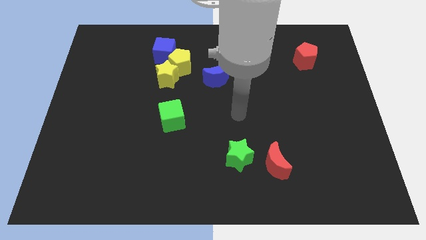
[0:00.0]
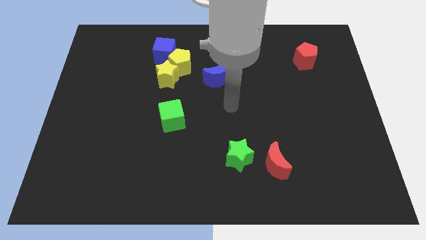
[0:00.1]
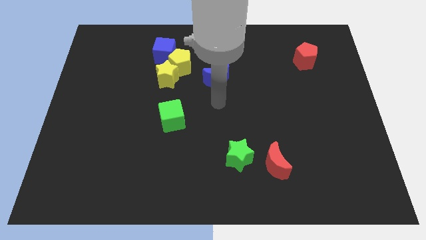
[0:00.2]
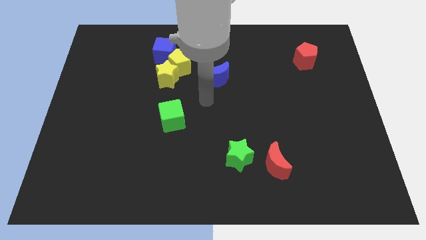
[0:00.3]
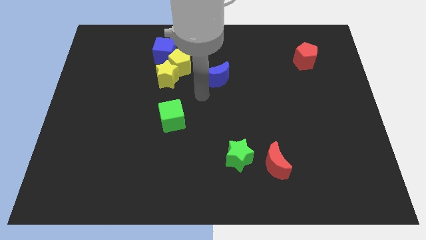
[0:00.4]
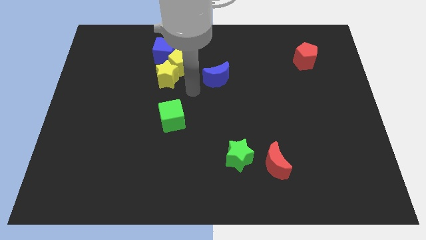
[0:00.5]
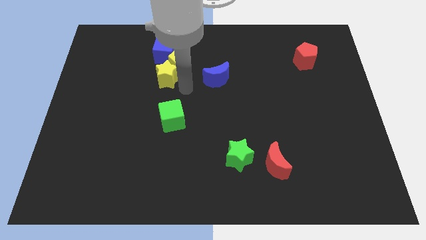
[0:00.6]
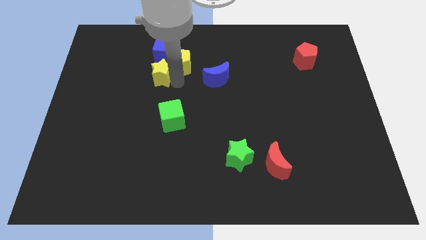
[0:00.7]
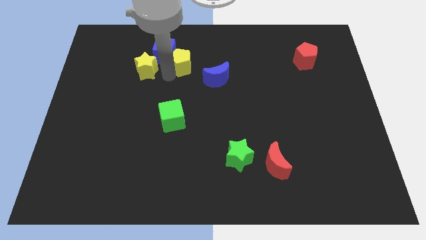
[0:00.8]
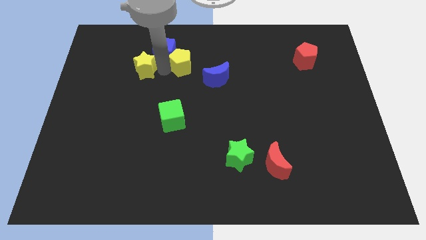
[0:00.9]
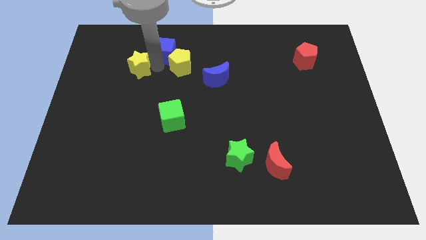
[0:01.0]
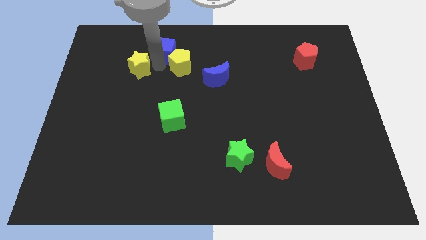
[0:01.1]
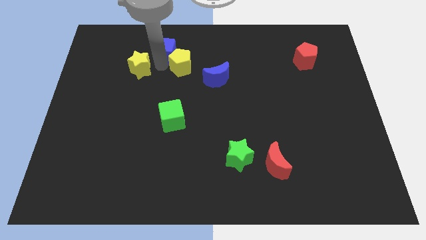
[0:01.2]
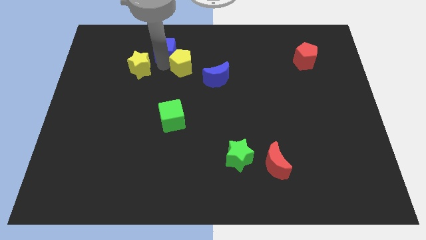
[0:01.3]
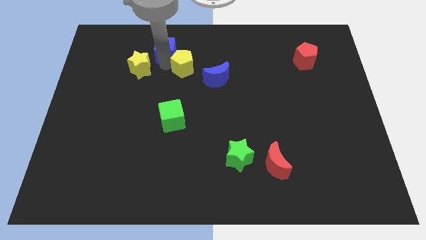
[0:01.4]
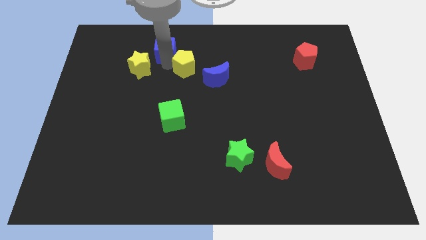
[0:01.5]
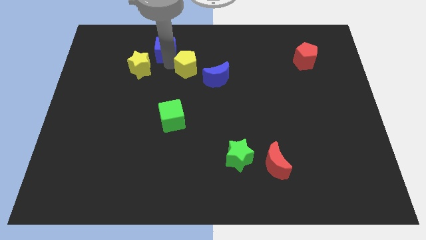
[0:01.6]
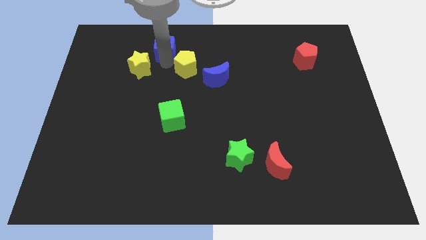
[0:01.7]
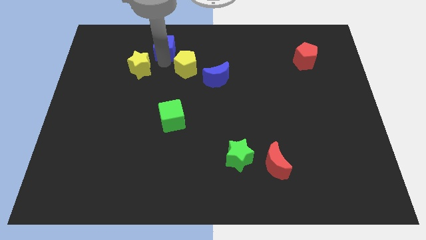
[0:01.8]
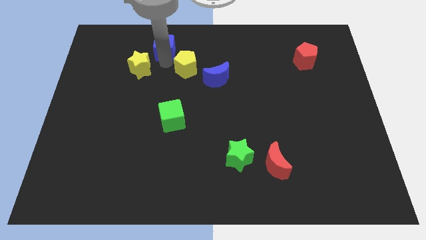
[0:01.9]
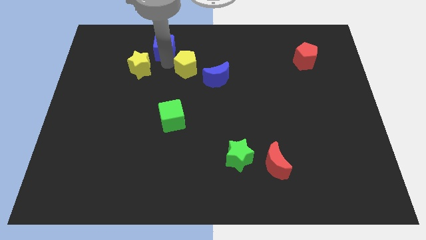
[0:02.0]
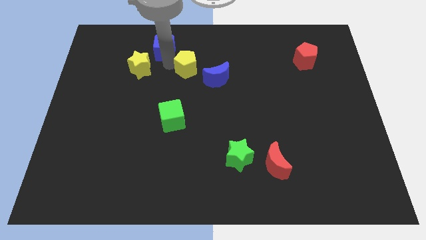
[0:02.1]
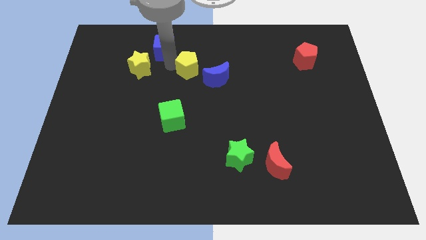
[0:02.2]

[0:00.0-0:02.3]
separate the yellow pentagon from the yellow star and blue cube

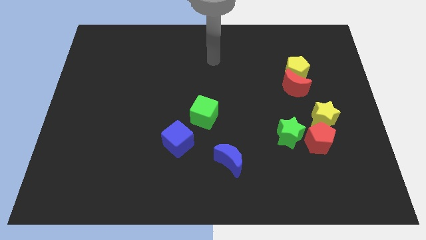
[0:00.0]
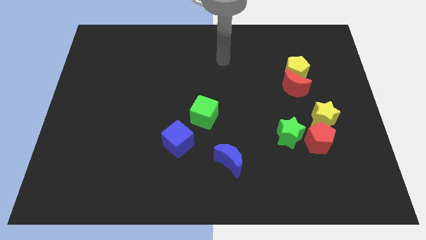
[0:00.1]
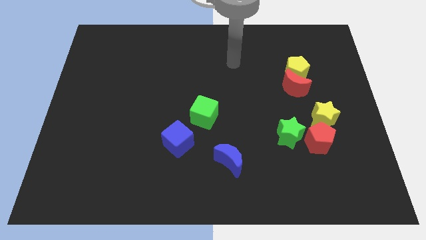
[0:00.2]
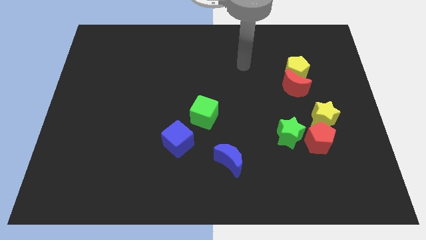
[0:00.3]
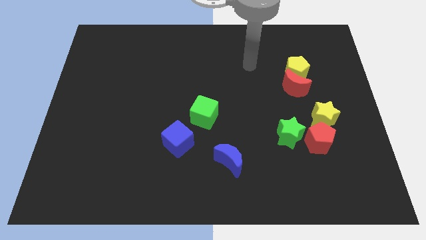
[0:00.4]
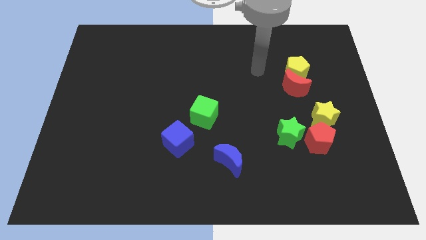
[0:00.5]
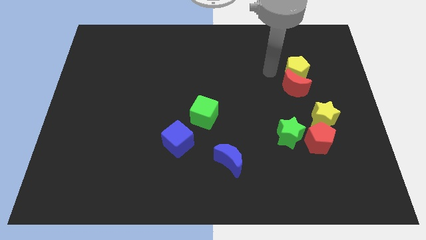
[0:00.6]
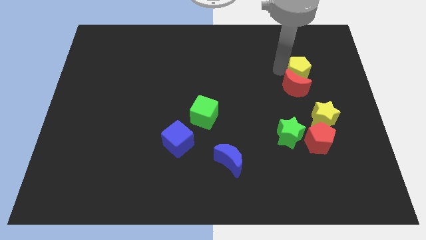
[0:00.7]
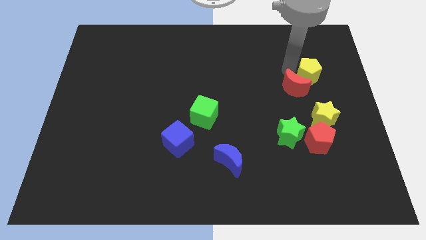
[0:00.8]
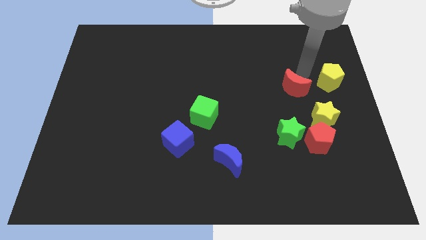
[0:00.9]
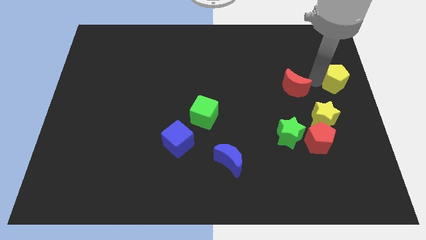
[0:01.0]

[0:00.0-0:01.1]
move the red moon away from the yellow pentagon

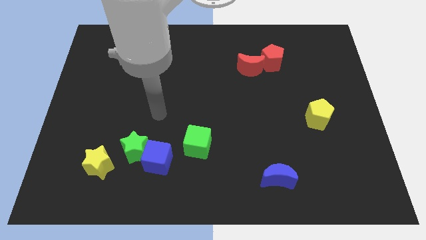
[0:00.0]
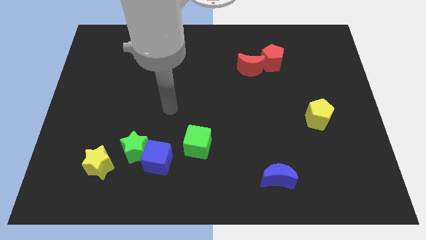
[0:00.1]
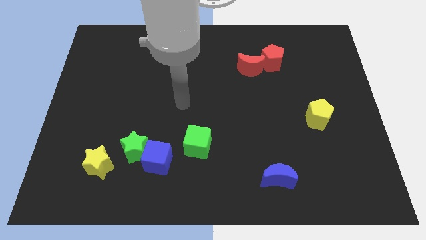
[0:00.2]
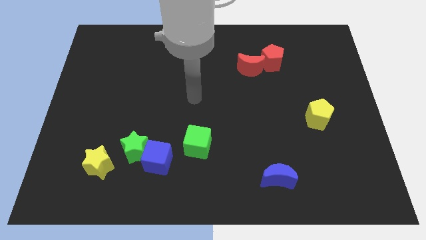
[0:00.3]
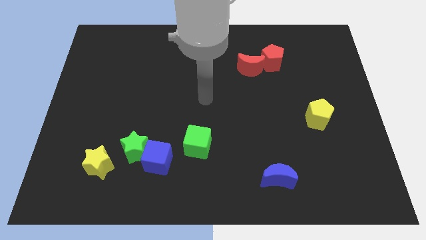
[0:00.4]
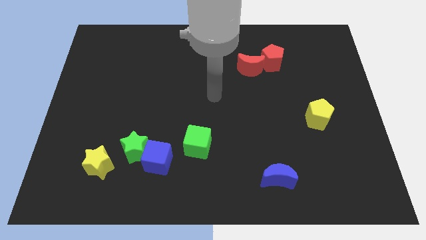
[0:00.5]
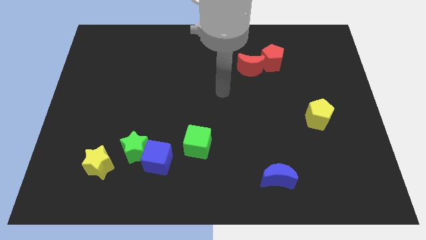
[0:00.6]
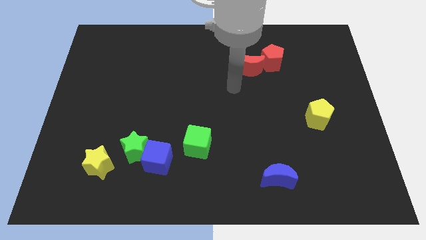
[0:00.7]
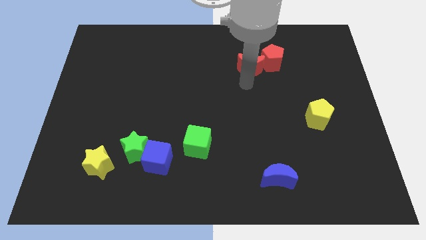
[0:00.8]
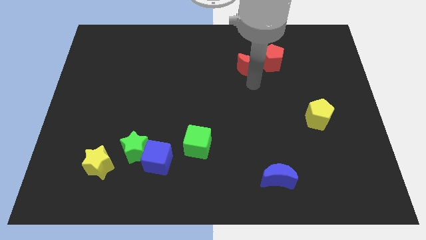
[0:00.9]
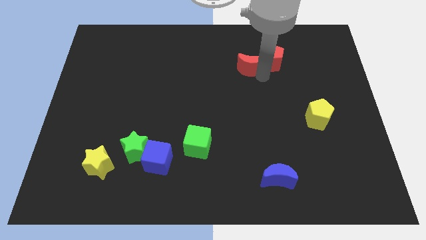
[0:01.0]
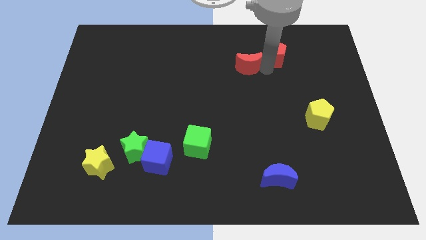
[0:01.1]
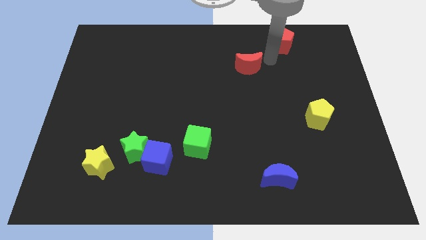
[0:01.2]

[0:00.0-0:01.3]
separate the red moon from the red pentagon

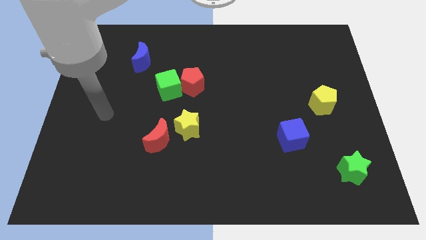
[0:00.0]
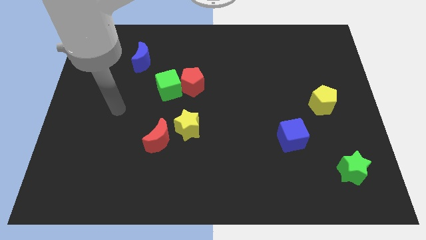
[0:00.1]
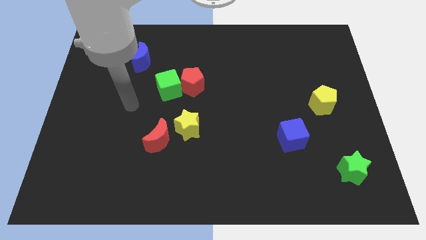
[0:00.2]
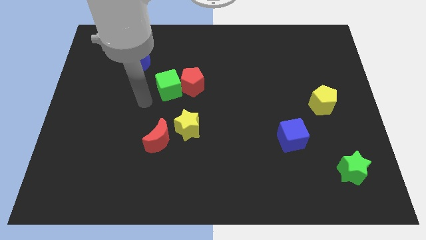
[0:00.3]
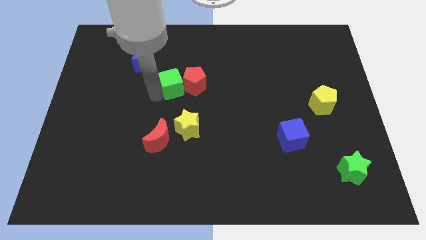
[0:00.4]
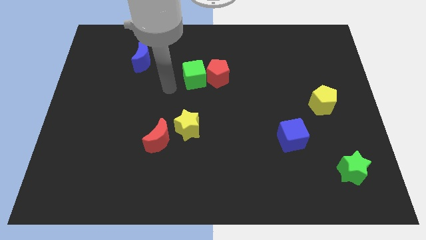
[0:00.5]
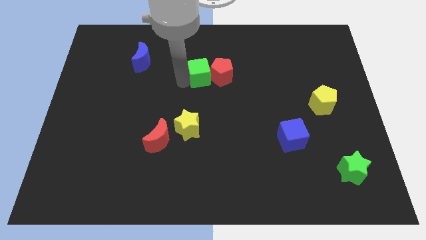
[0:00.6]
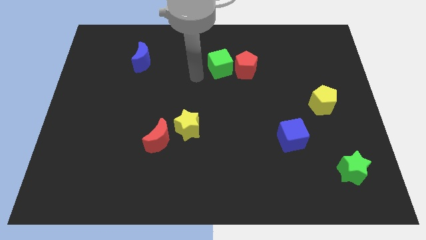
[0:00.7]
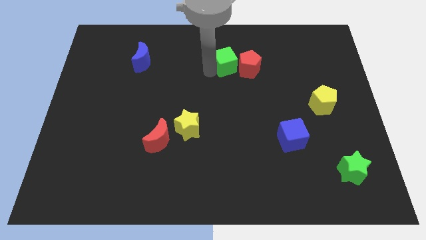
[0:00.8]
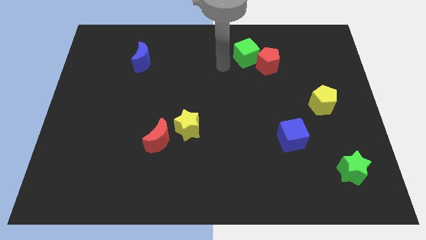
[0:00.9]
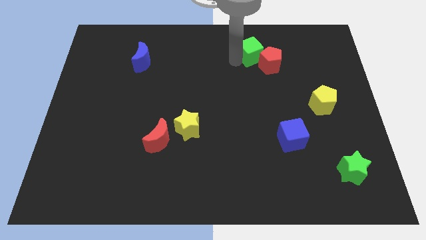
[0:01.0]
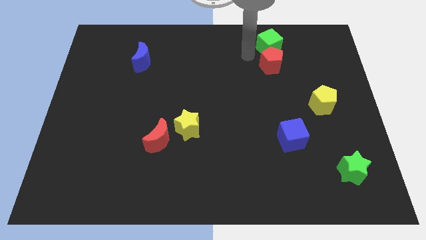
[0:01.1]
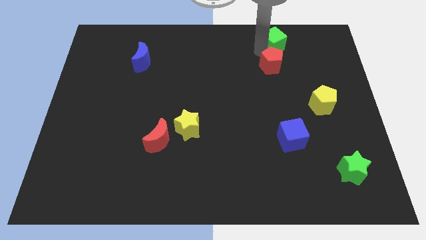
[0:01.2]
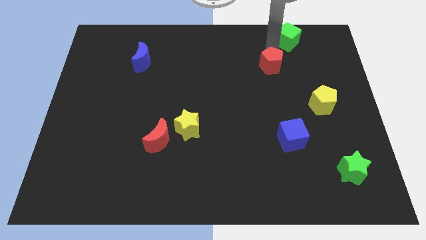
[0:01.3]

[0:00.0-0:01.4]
separate the red pentagon from the green cube

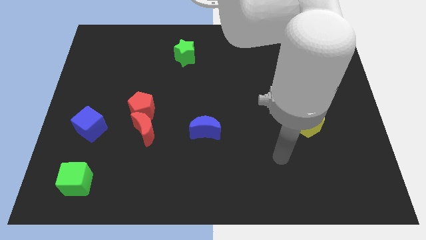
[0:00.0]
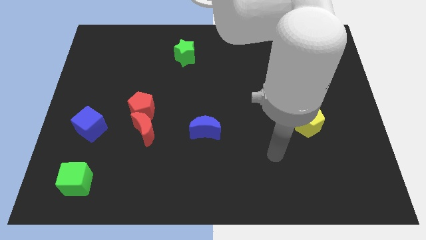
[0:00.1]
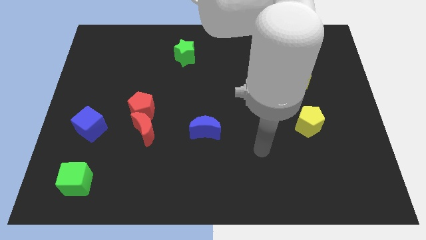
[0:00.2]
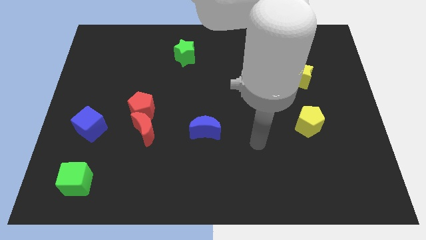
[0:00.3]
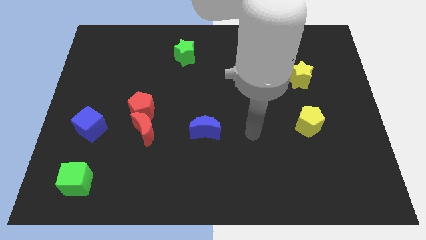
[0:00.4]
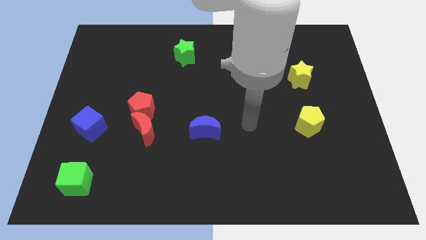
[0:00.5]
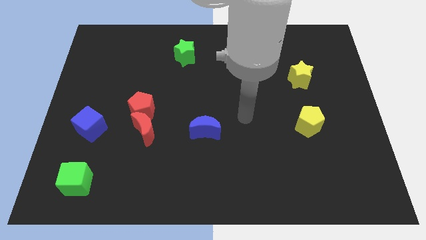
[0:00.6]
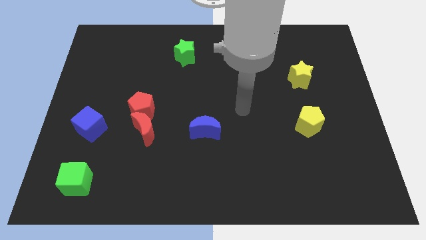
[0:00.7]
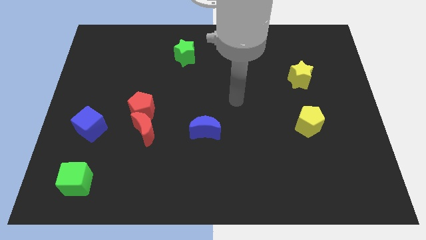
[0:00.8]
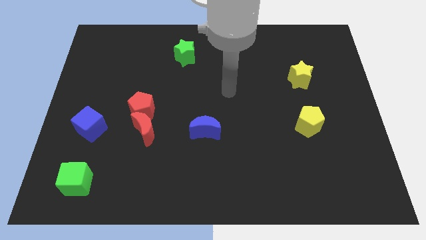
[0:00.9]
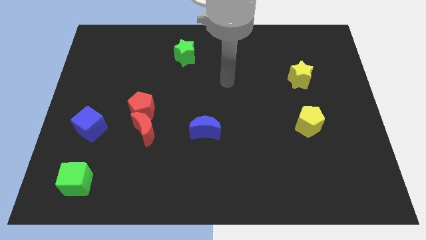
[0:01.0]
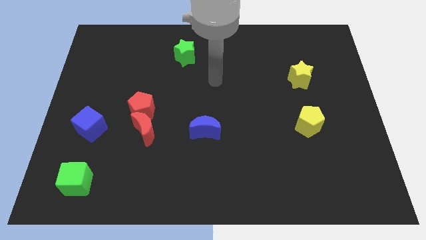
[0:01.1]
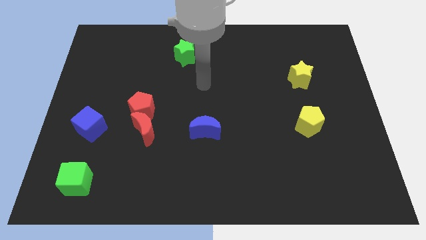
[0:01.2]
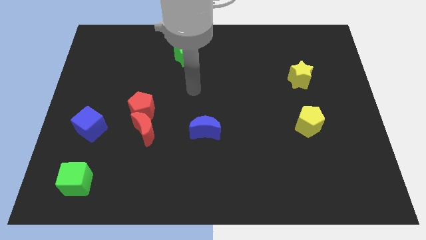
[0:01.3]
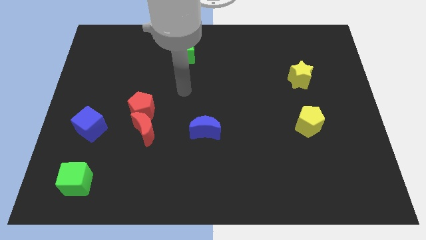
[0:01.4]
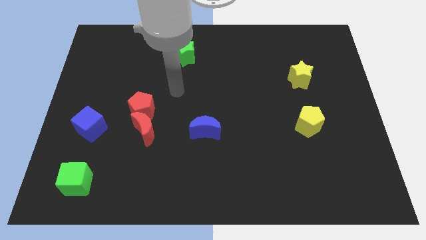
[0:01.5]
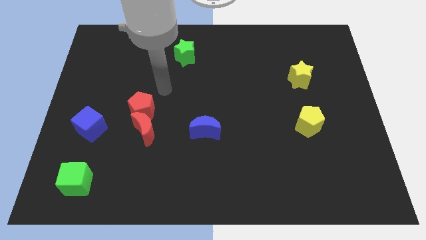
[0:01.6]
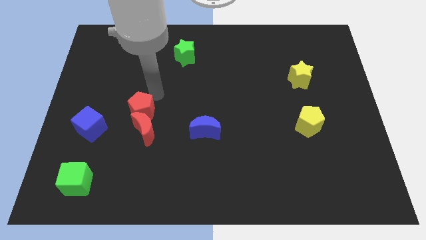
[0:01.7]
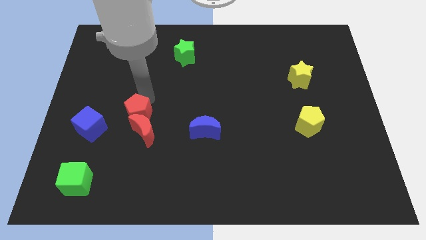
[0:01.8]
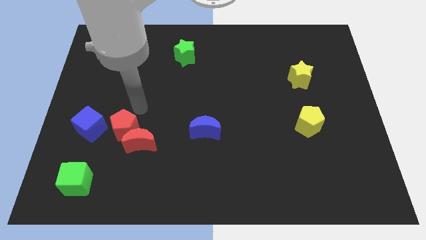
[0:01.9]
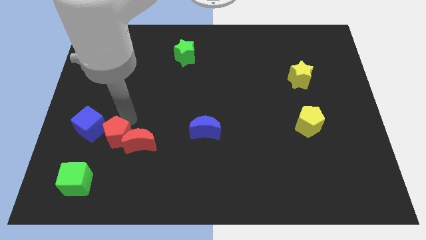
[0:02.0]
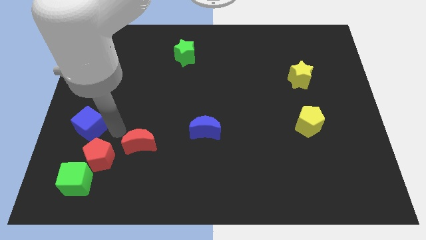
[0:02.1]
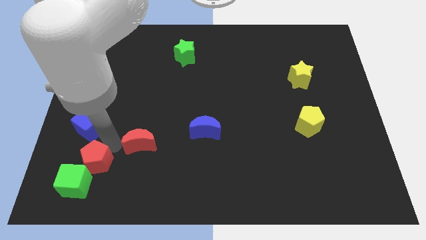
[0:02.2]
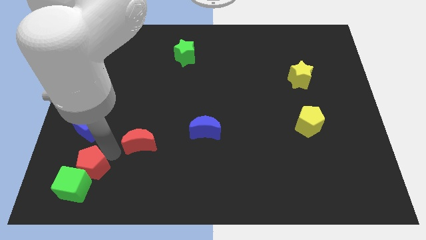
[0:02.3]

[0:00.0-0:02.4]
pull the red moon apart from the red pentagon

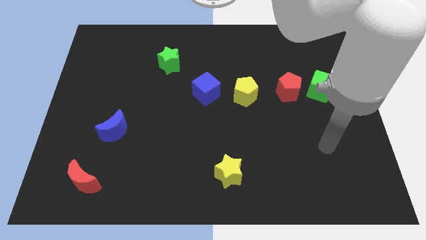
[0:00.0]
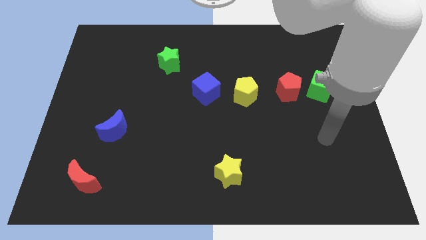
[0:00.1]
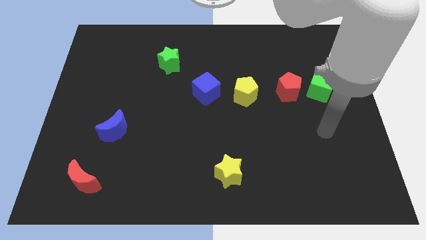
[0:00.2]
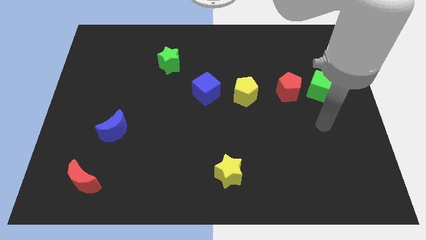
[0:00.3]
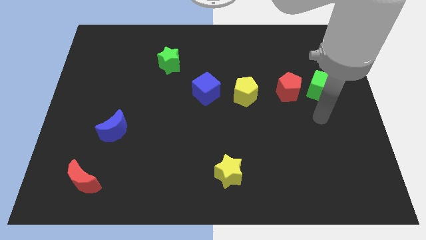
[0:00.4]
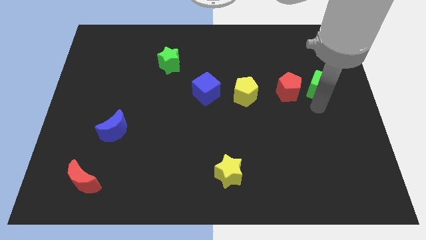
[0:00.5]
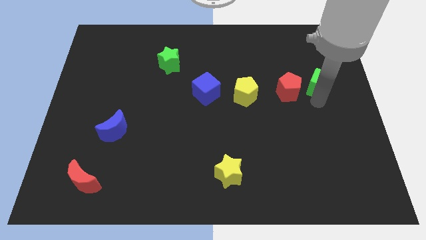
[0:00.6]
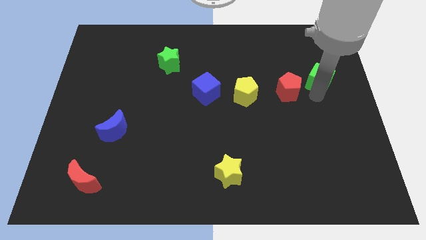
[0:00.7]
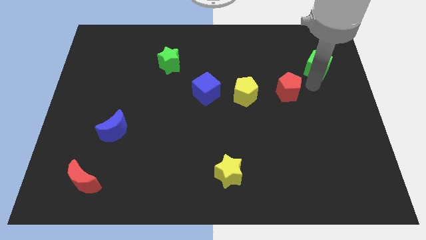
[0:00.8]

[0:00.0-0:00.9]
move the red pentagon away from the green cube
